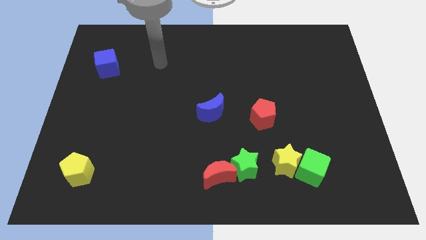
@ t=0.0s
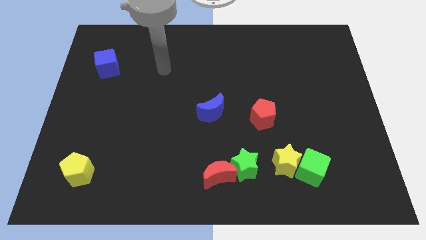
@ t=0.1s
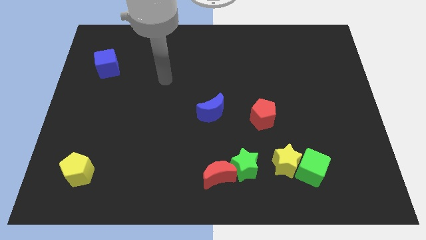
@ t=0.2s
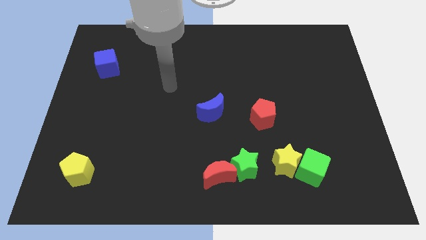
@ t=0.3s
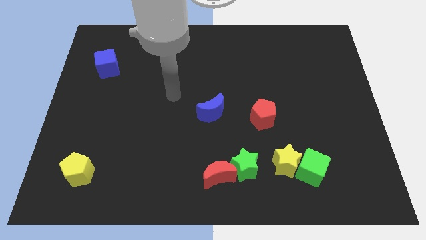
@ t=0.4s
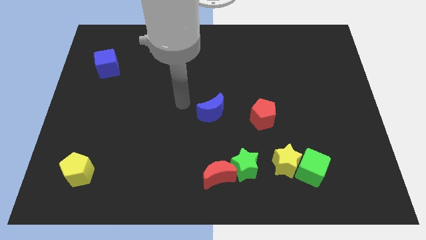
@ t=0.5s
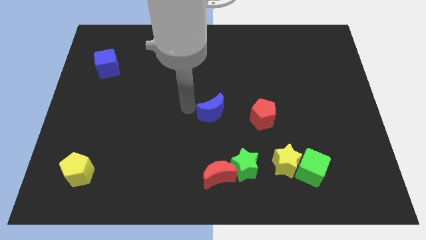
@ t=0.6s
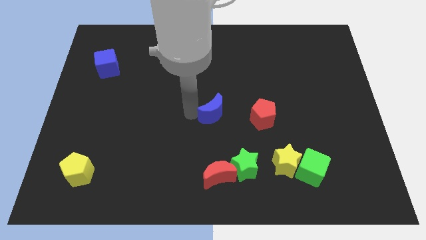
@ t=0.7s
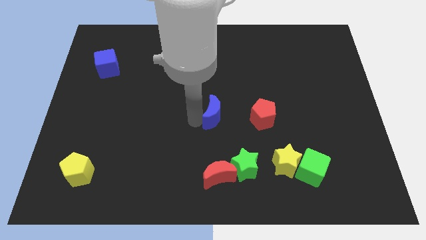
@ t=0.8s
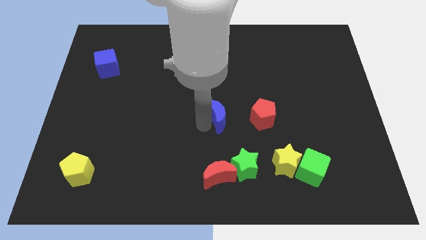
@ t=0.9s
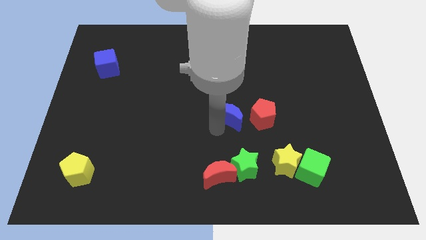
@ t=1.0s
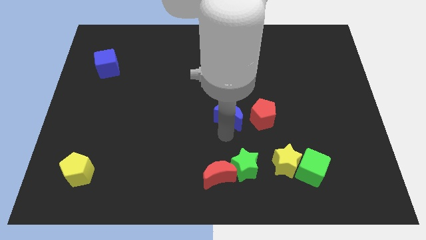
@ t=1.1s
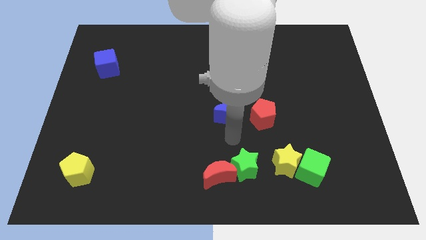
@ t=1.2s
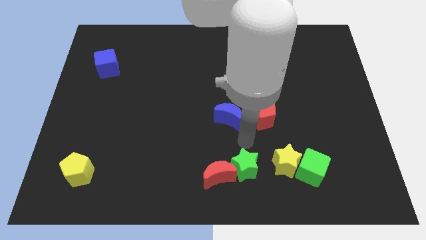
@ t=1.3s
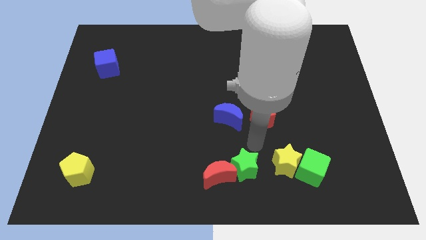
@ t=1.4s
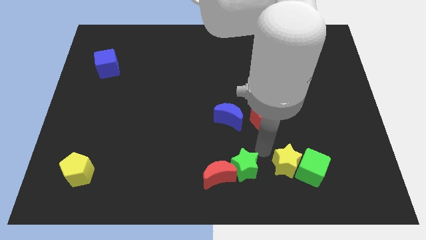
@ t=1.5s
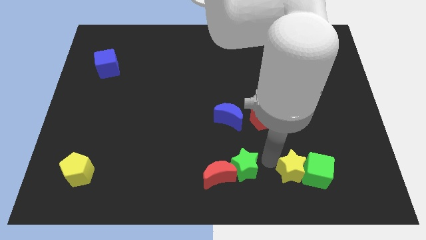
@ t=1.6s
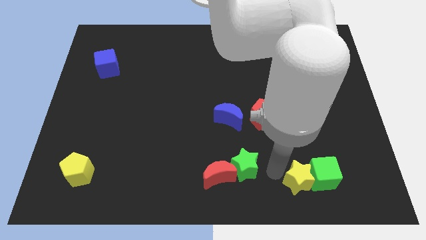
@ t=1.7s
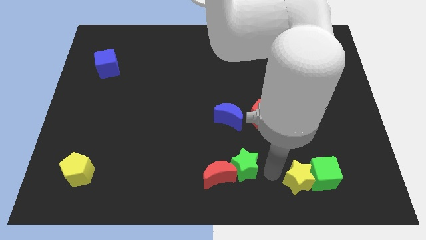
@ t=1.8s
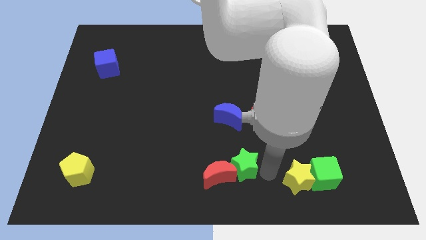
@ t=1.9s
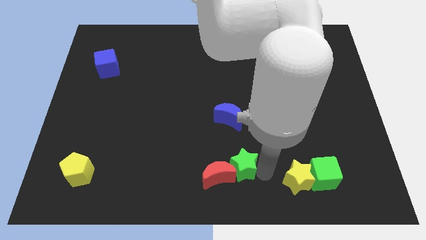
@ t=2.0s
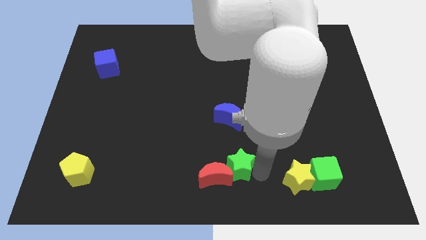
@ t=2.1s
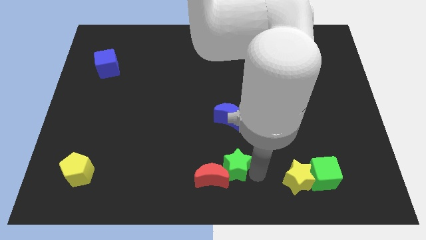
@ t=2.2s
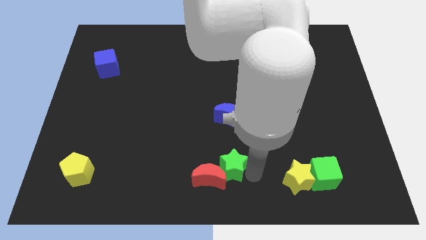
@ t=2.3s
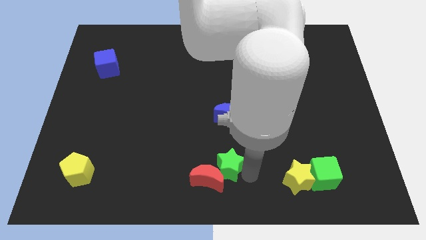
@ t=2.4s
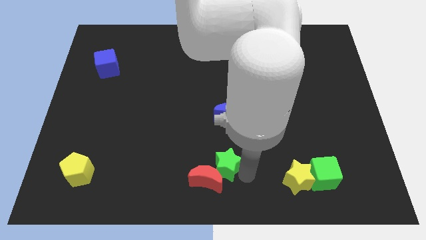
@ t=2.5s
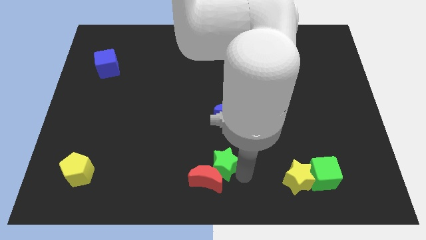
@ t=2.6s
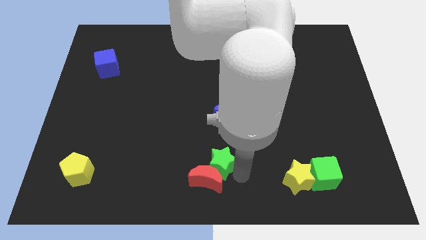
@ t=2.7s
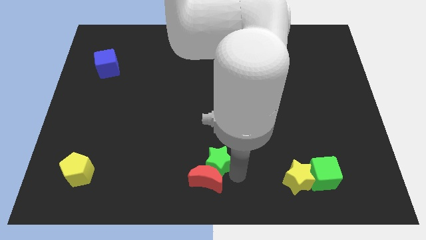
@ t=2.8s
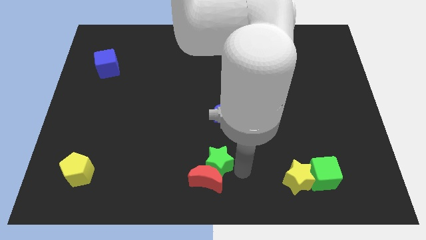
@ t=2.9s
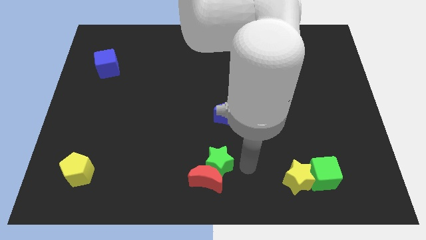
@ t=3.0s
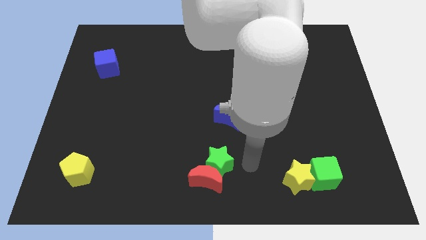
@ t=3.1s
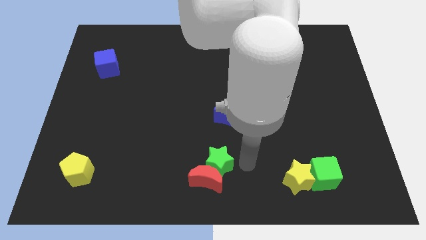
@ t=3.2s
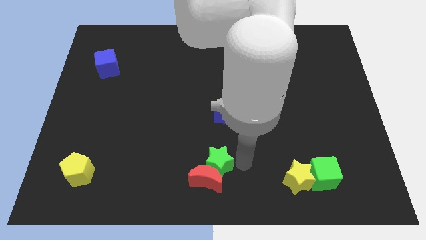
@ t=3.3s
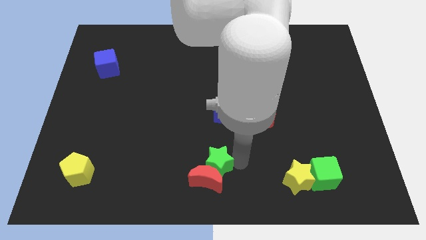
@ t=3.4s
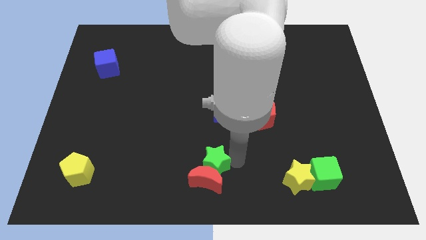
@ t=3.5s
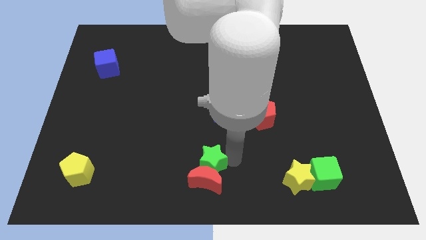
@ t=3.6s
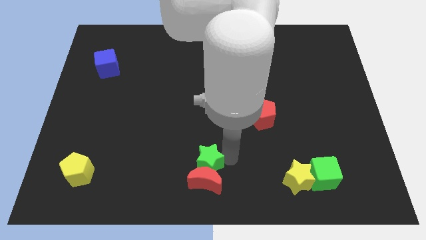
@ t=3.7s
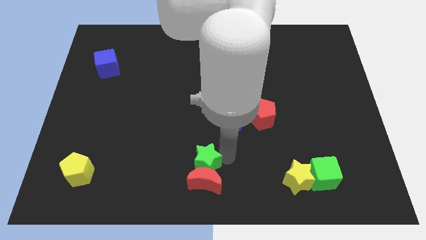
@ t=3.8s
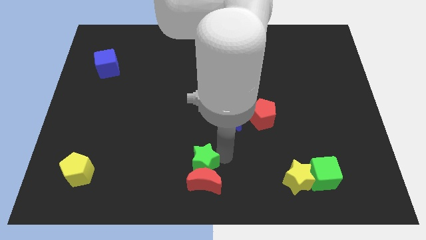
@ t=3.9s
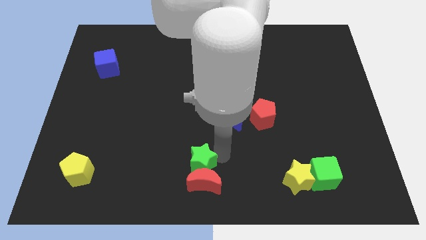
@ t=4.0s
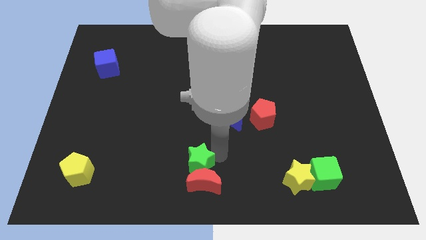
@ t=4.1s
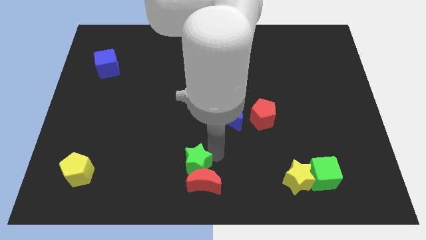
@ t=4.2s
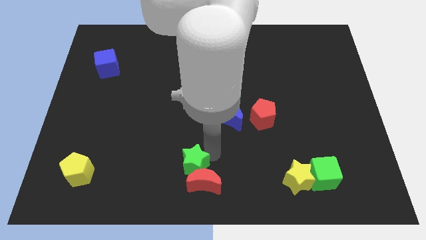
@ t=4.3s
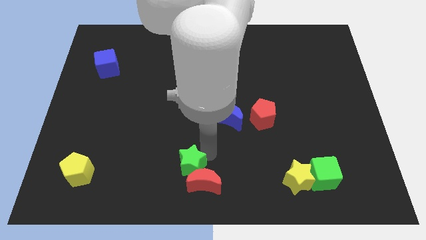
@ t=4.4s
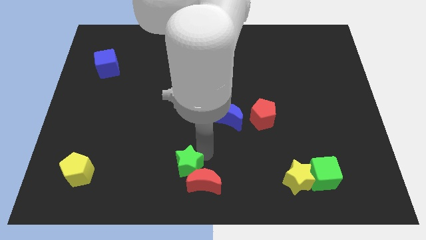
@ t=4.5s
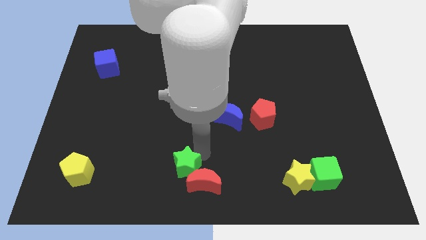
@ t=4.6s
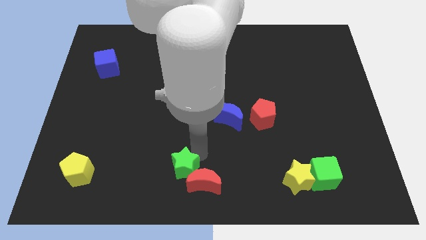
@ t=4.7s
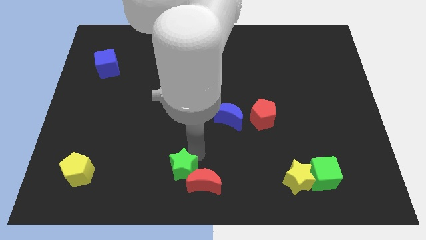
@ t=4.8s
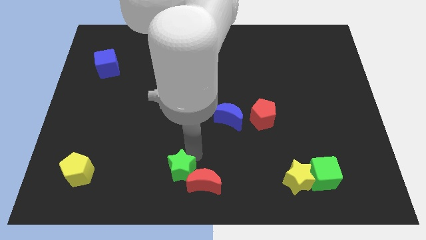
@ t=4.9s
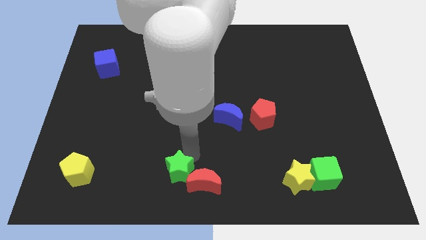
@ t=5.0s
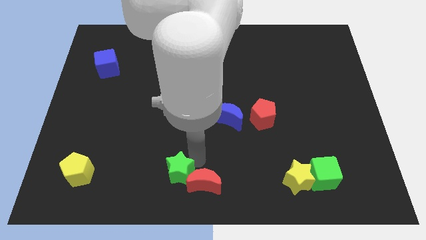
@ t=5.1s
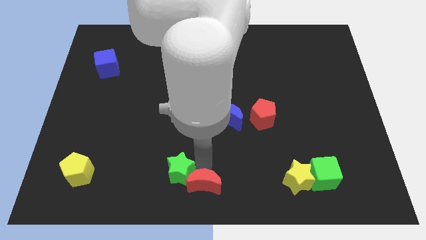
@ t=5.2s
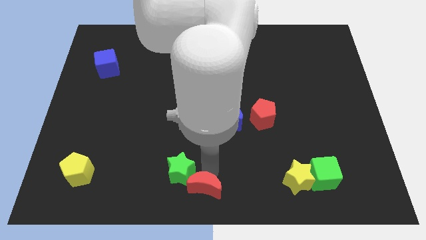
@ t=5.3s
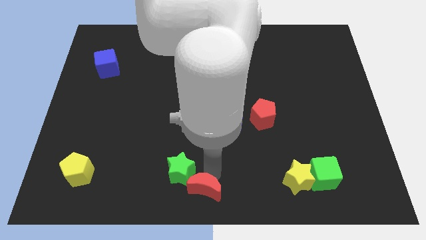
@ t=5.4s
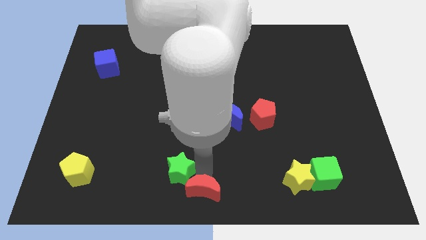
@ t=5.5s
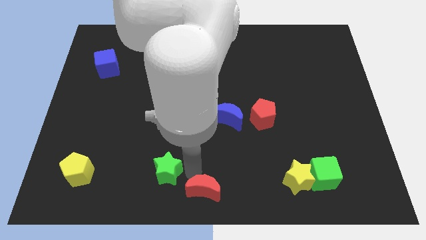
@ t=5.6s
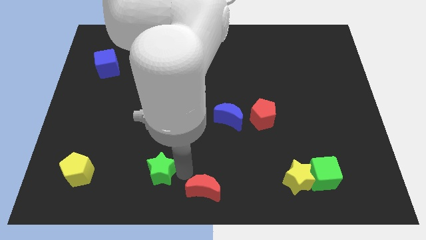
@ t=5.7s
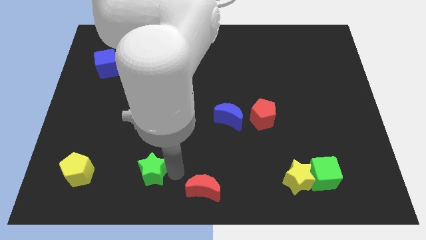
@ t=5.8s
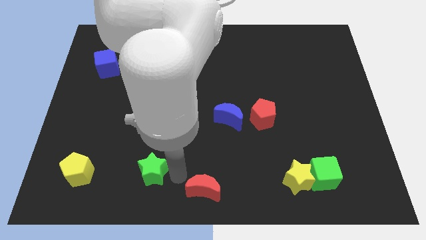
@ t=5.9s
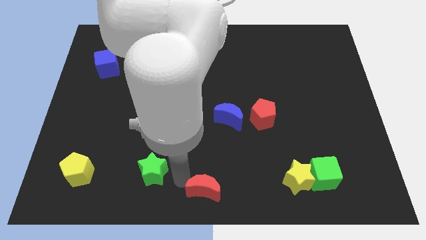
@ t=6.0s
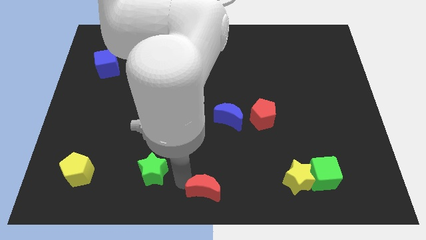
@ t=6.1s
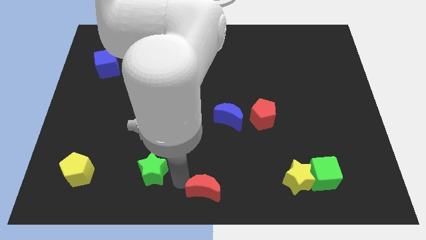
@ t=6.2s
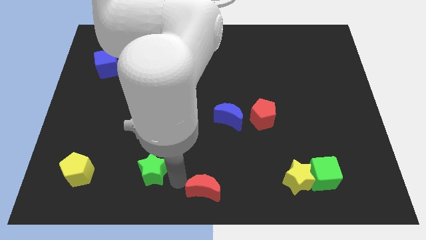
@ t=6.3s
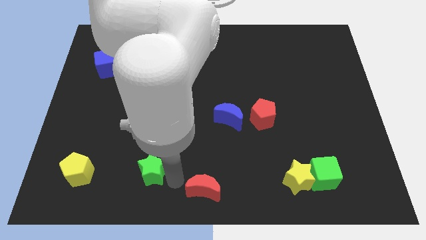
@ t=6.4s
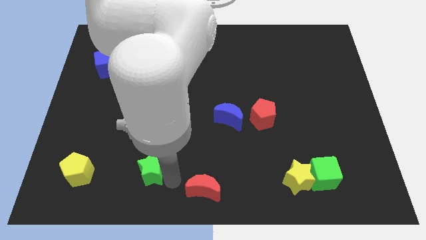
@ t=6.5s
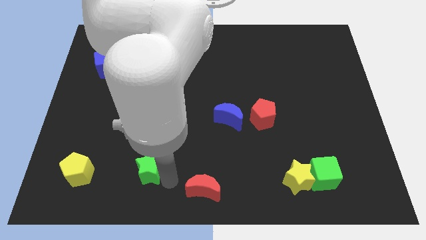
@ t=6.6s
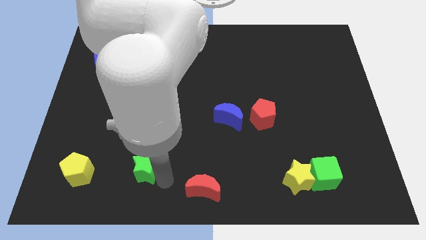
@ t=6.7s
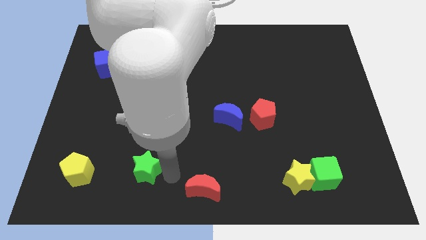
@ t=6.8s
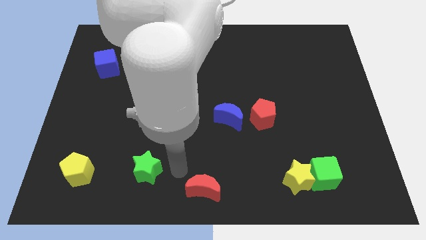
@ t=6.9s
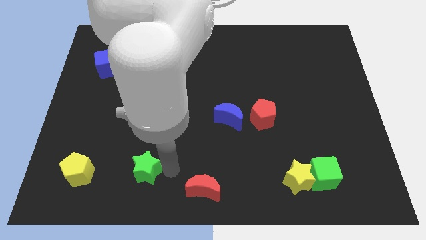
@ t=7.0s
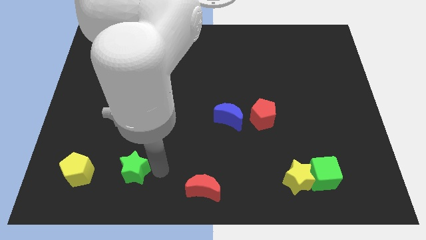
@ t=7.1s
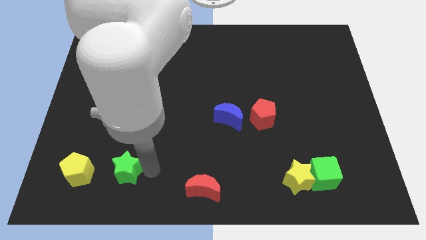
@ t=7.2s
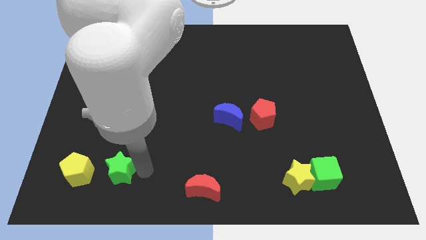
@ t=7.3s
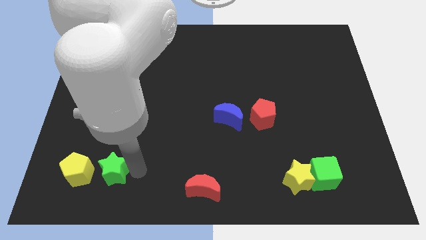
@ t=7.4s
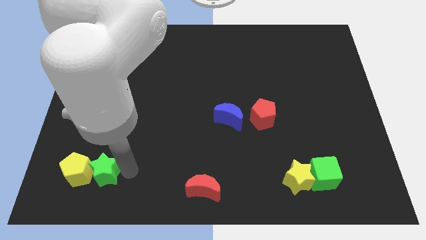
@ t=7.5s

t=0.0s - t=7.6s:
push the green star next to the yellow pentagon
